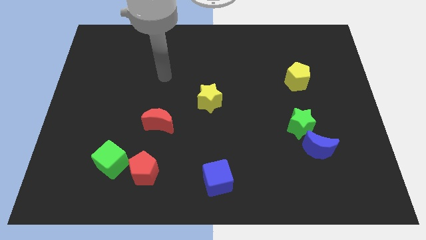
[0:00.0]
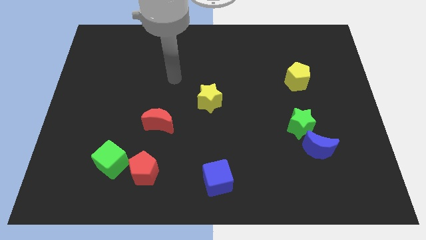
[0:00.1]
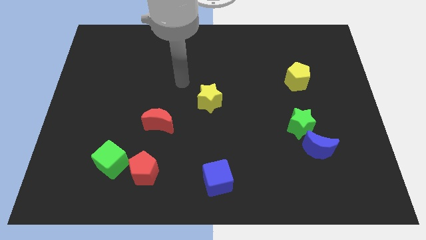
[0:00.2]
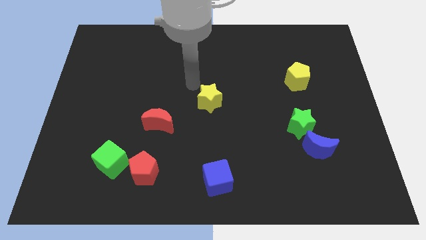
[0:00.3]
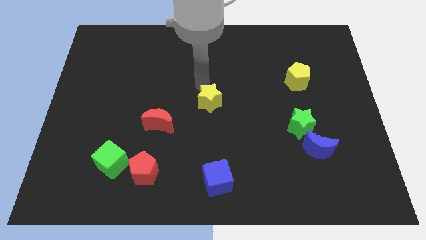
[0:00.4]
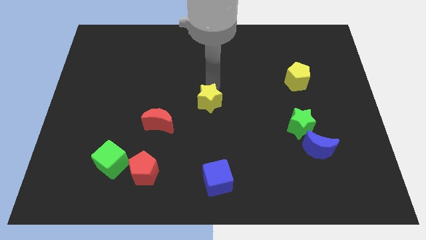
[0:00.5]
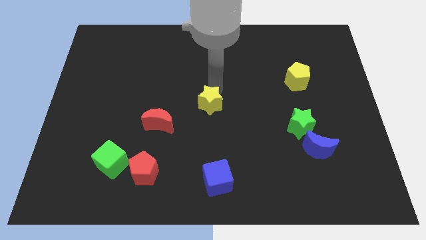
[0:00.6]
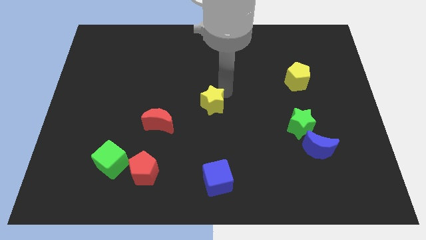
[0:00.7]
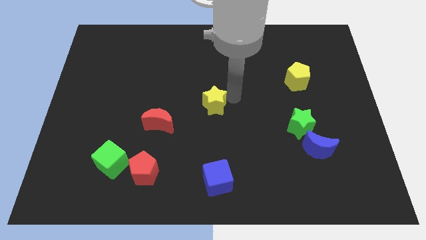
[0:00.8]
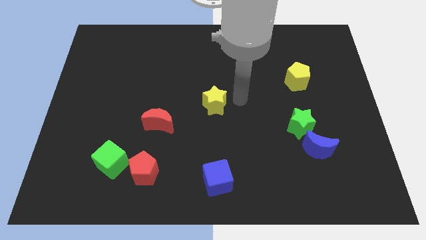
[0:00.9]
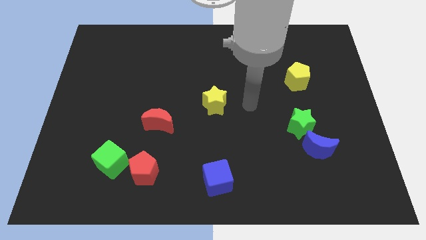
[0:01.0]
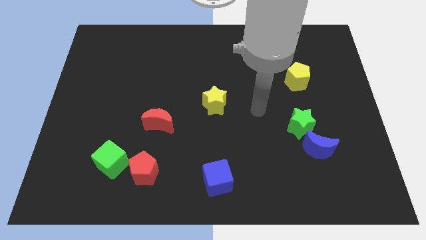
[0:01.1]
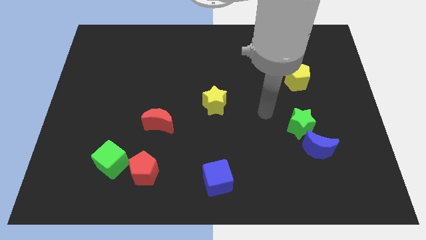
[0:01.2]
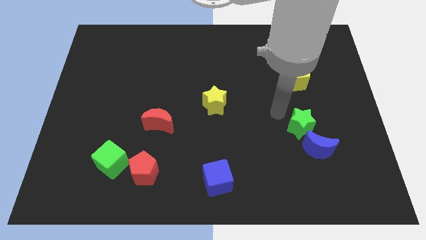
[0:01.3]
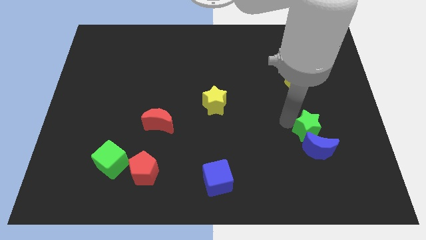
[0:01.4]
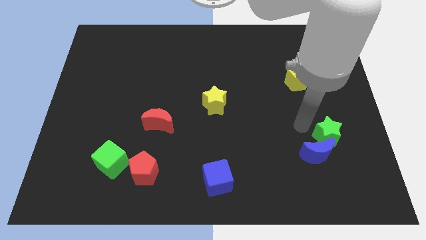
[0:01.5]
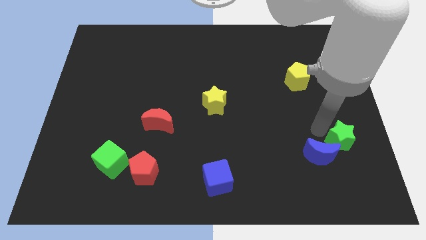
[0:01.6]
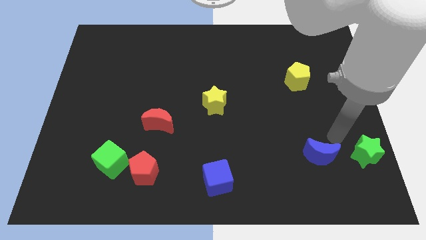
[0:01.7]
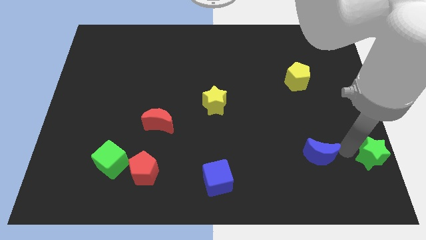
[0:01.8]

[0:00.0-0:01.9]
move the blue moon away from the green star

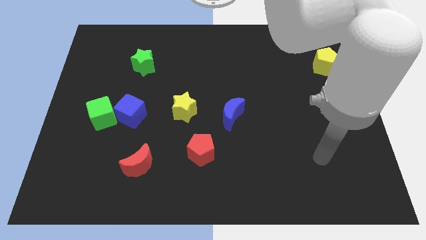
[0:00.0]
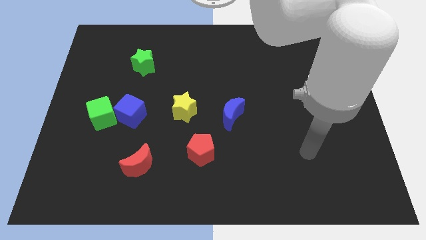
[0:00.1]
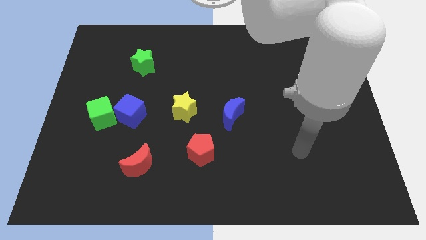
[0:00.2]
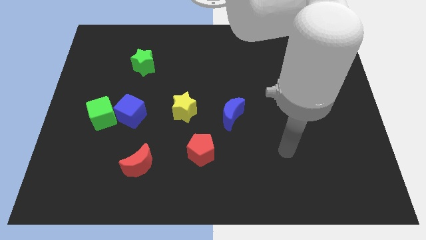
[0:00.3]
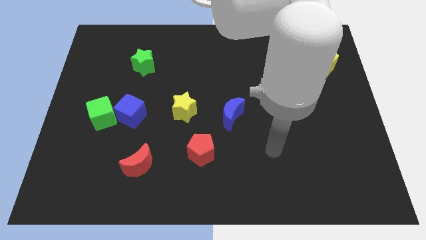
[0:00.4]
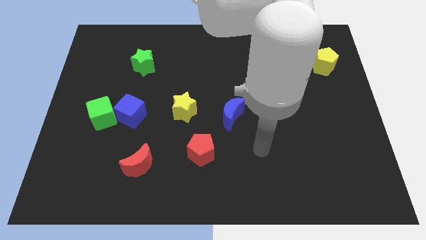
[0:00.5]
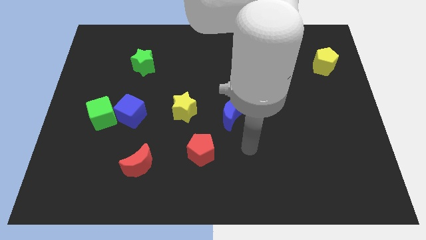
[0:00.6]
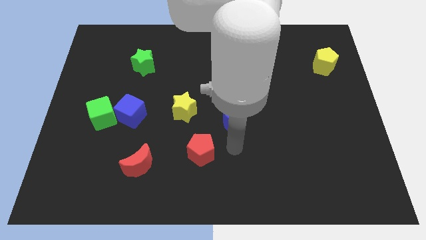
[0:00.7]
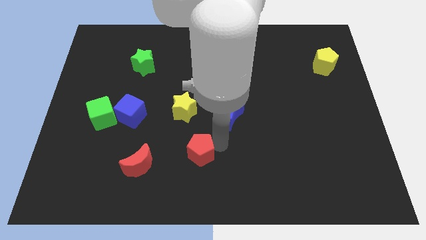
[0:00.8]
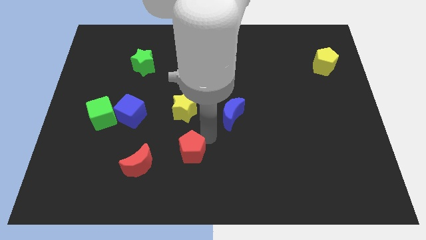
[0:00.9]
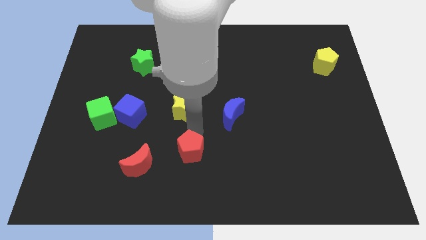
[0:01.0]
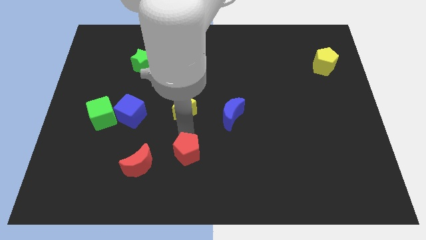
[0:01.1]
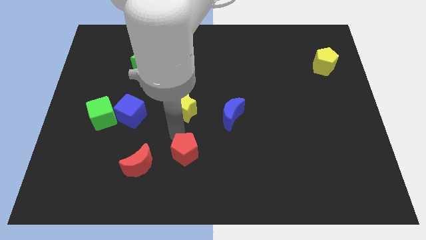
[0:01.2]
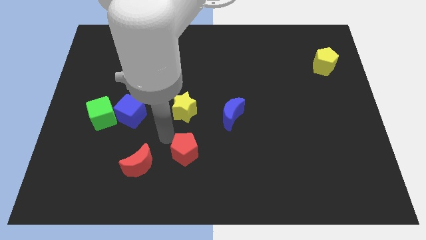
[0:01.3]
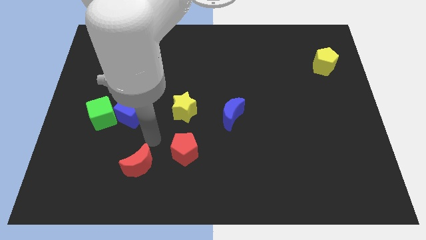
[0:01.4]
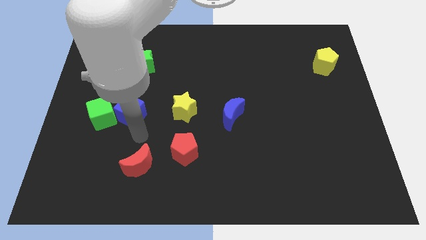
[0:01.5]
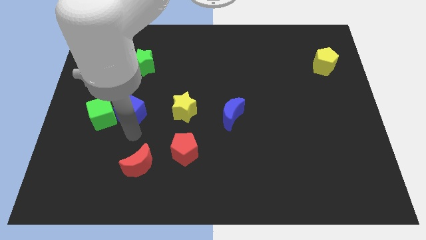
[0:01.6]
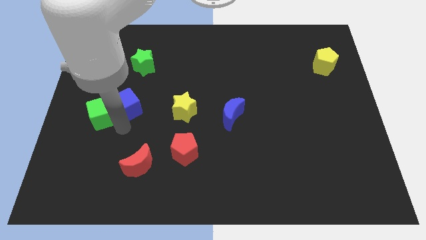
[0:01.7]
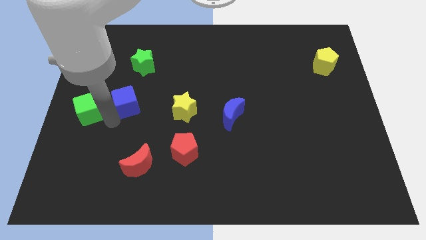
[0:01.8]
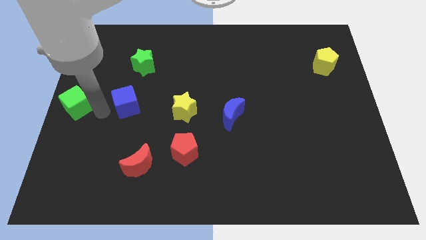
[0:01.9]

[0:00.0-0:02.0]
move the blue cube away from the green cube

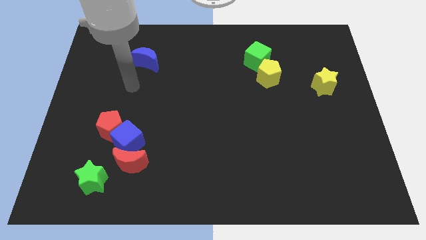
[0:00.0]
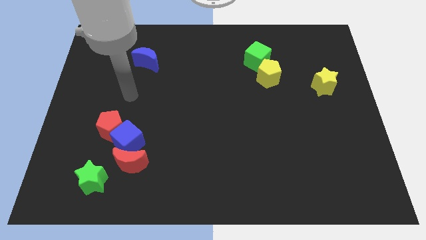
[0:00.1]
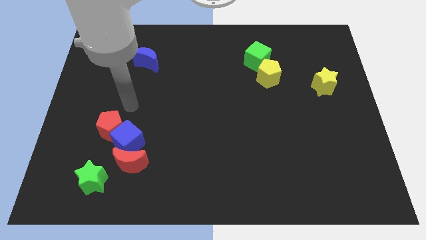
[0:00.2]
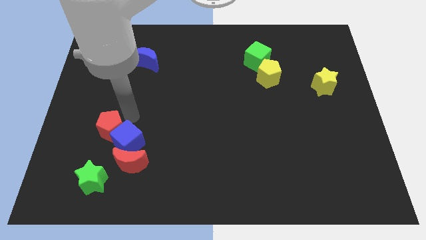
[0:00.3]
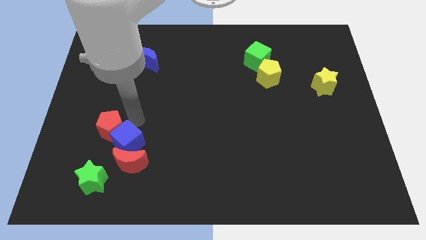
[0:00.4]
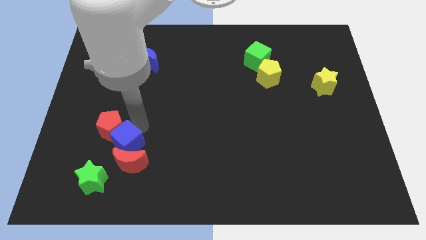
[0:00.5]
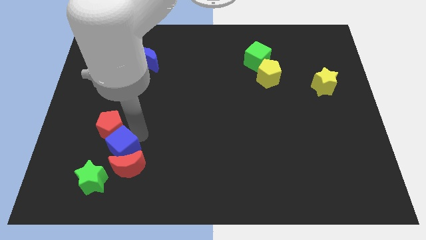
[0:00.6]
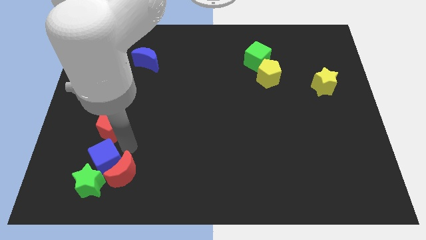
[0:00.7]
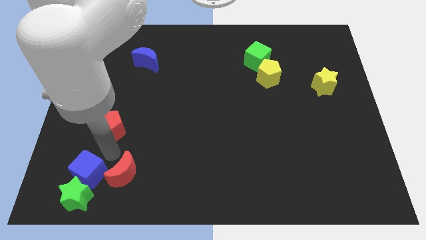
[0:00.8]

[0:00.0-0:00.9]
pull the red pentagon apart from the blue cube

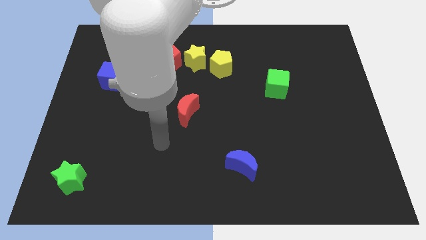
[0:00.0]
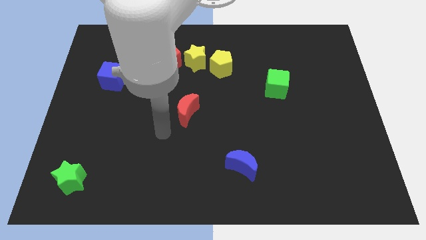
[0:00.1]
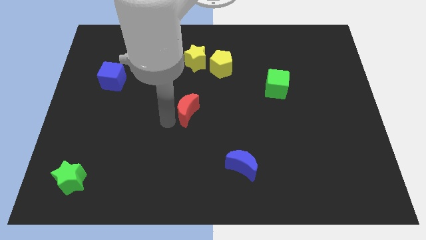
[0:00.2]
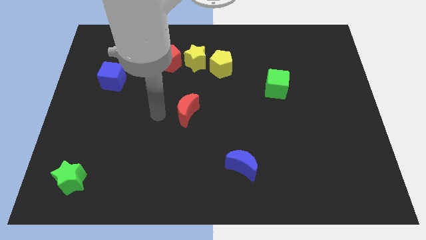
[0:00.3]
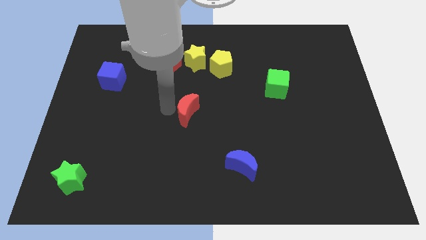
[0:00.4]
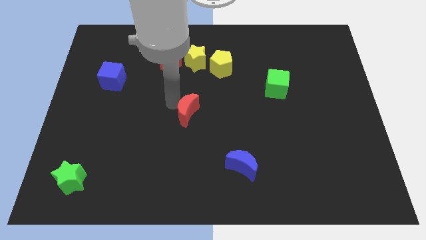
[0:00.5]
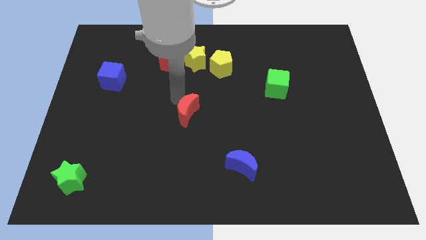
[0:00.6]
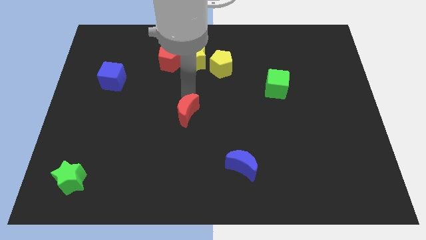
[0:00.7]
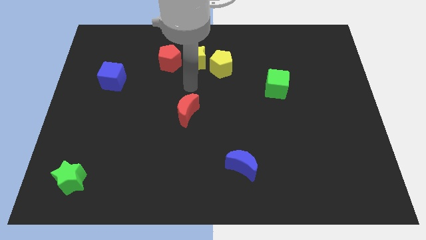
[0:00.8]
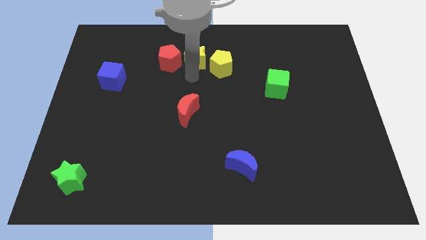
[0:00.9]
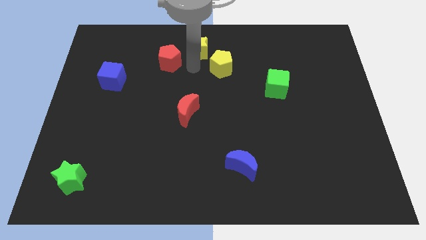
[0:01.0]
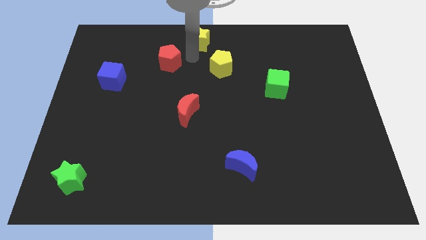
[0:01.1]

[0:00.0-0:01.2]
move the red pentagon away from the yellow star

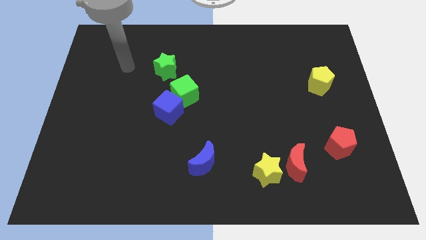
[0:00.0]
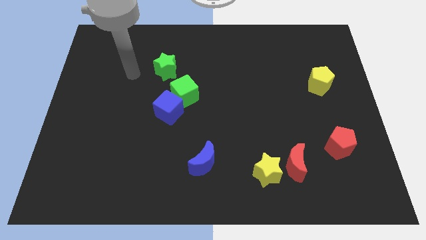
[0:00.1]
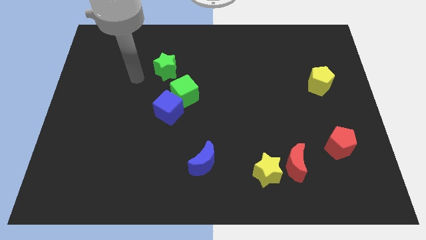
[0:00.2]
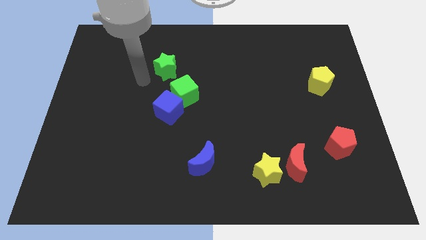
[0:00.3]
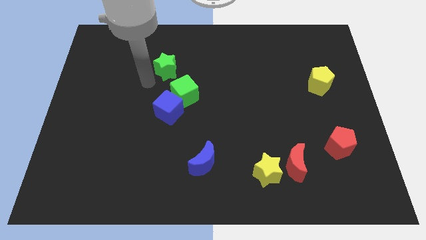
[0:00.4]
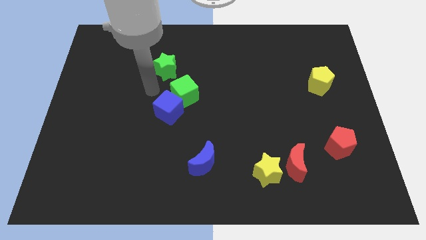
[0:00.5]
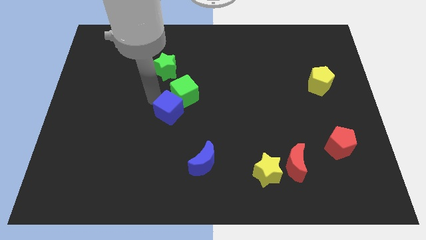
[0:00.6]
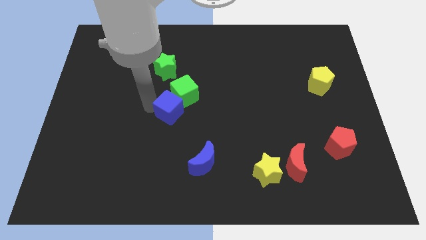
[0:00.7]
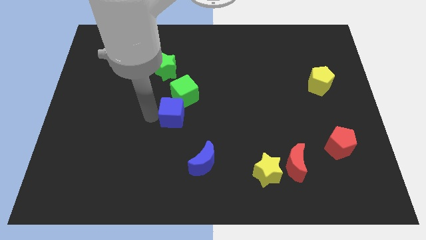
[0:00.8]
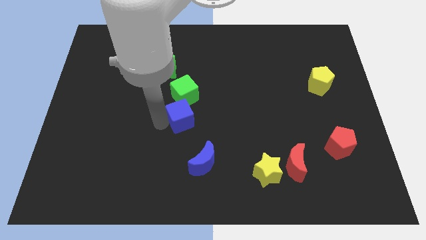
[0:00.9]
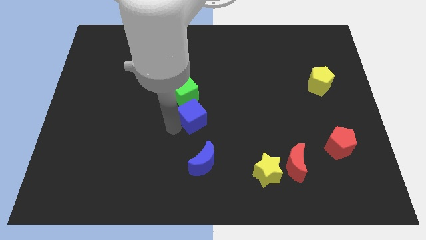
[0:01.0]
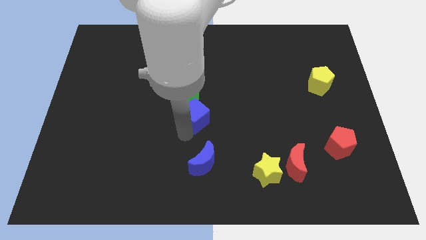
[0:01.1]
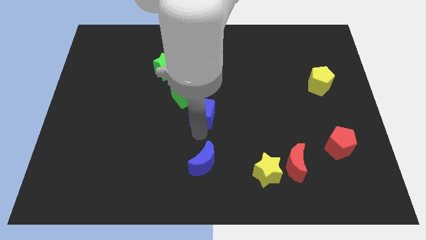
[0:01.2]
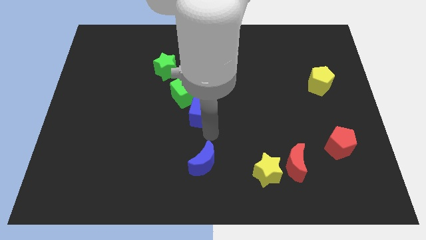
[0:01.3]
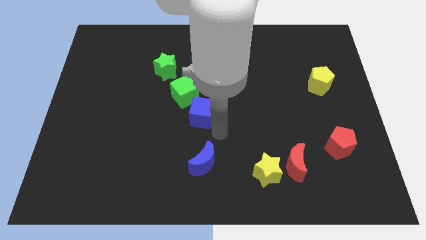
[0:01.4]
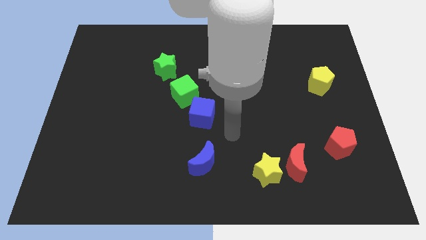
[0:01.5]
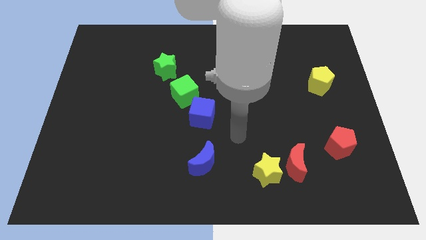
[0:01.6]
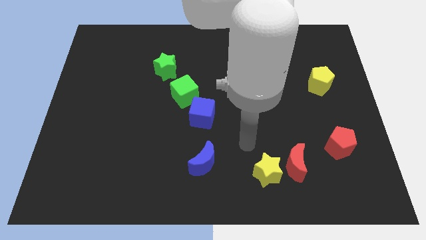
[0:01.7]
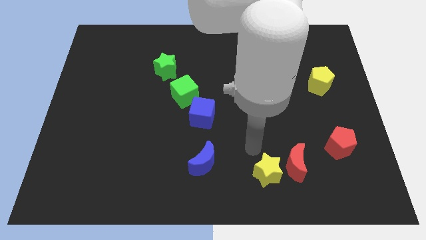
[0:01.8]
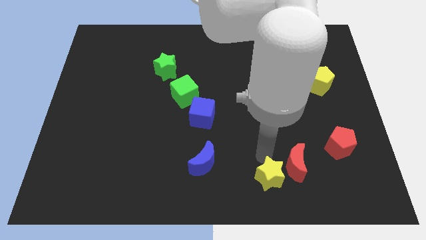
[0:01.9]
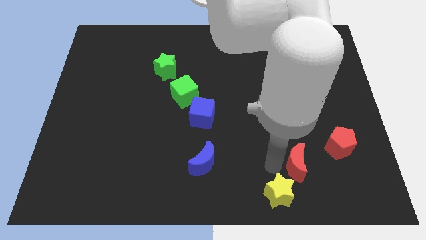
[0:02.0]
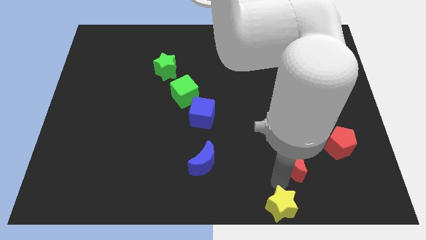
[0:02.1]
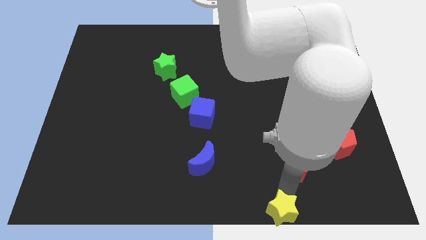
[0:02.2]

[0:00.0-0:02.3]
move the red moon away from the yellow star

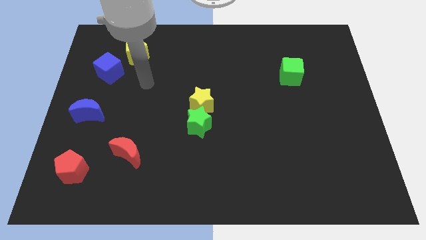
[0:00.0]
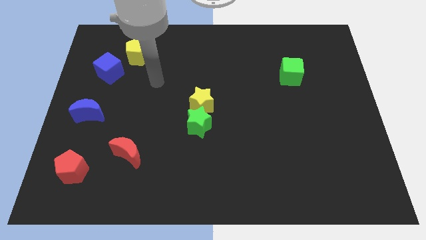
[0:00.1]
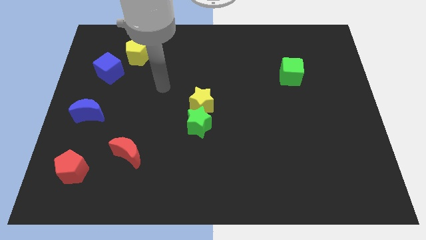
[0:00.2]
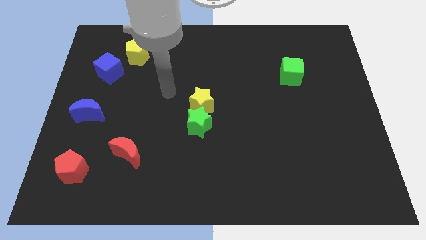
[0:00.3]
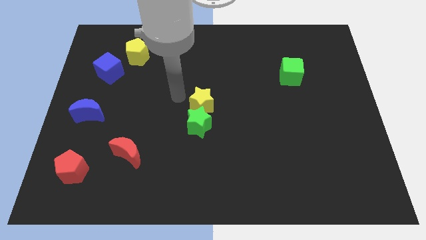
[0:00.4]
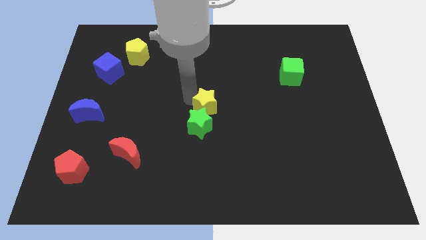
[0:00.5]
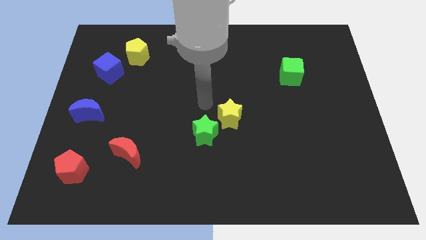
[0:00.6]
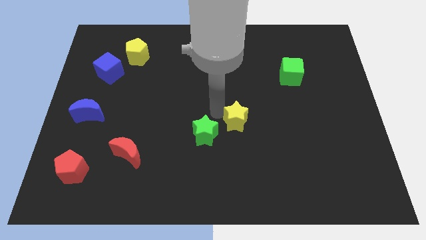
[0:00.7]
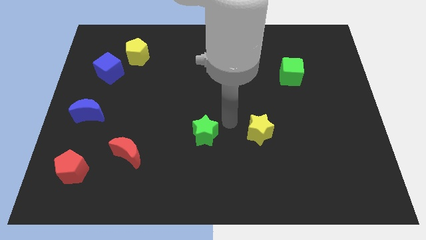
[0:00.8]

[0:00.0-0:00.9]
pull the green star apart from the yellow star

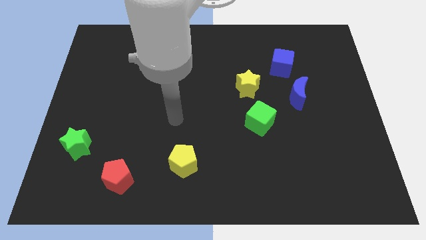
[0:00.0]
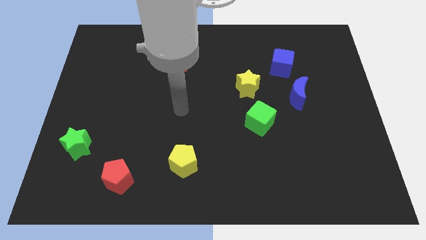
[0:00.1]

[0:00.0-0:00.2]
pull the blue moon apart from the blue cube
